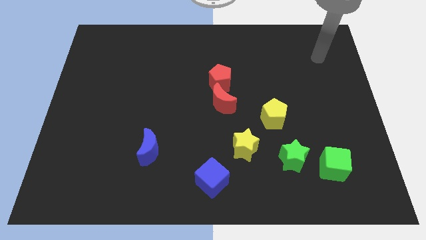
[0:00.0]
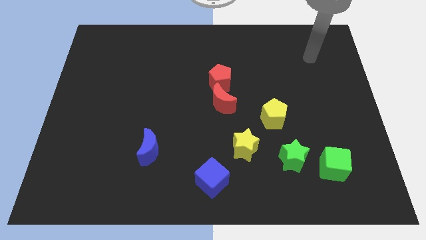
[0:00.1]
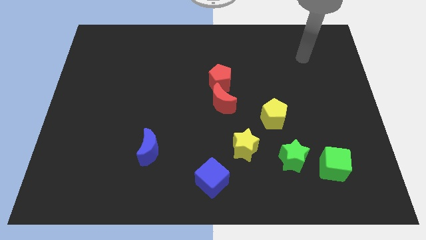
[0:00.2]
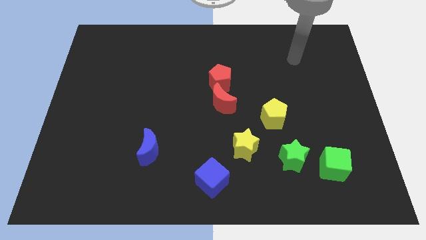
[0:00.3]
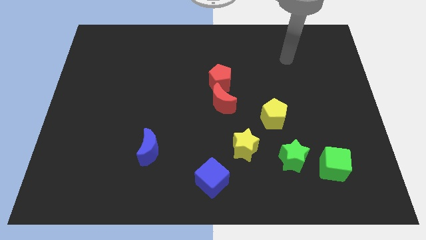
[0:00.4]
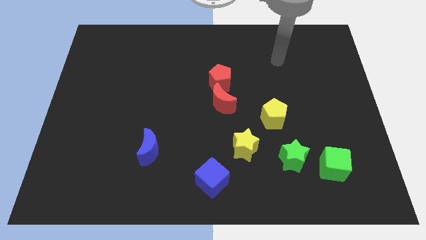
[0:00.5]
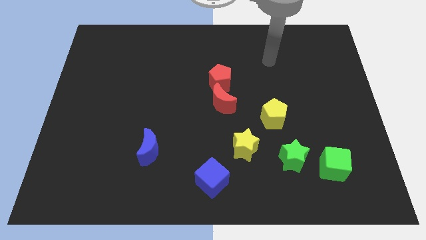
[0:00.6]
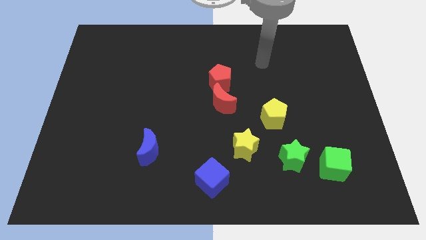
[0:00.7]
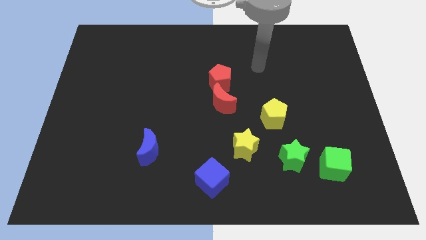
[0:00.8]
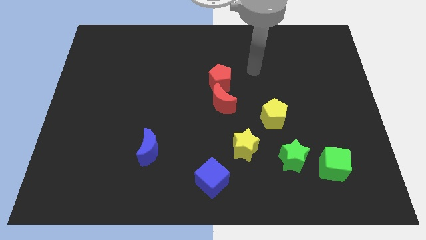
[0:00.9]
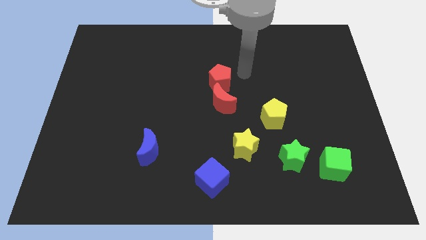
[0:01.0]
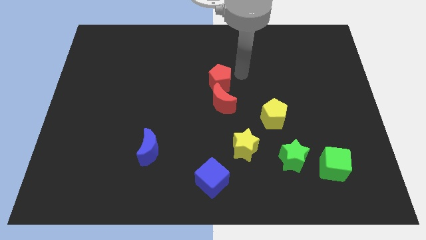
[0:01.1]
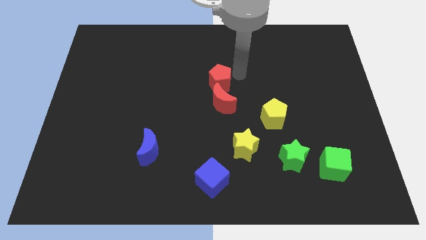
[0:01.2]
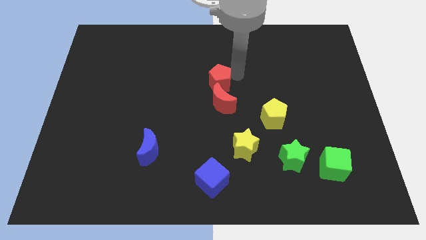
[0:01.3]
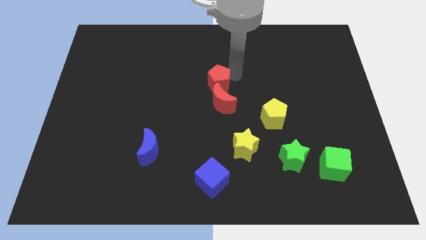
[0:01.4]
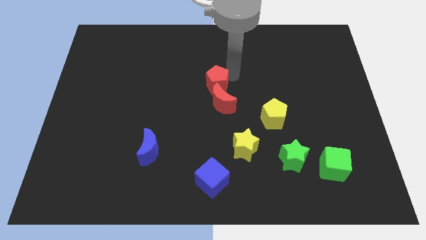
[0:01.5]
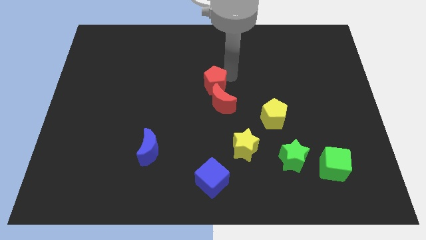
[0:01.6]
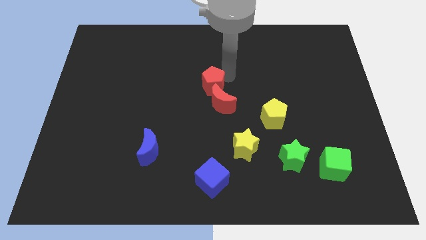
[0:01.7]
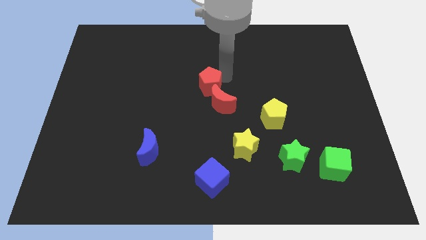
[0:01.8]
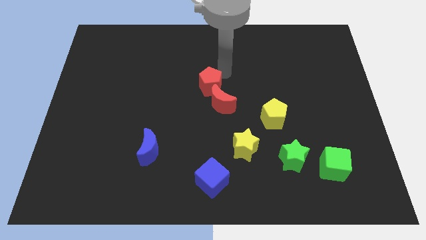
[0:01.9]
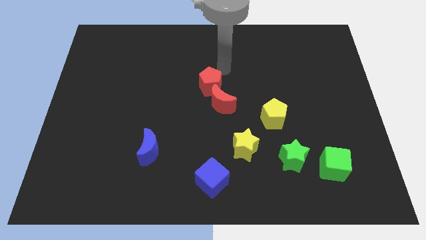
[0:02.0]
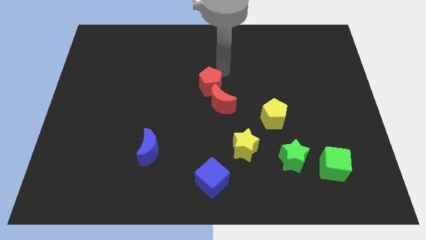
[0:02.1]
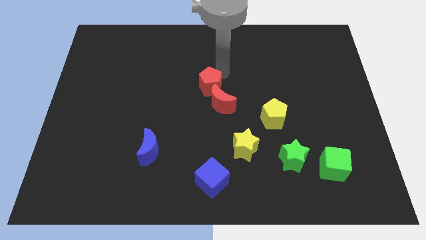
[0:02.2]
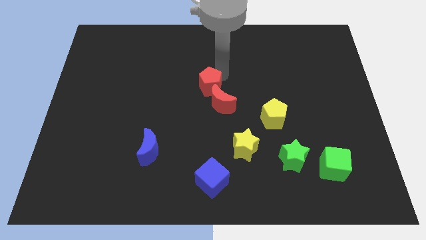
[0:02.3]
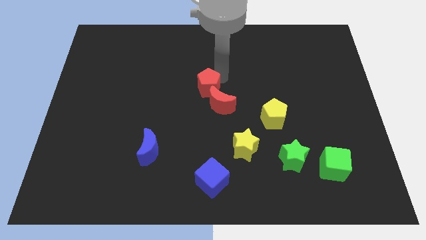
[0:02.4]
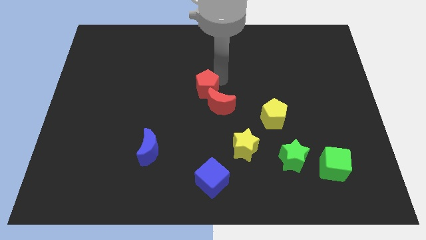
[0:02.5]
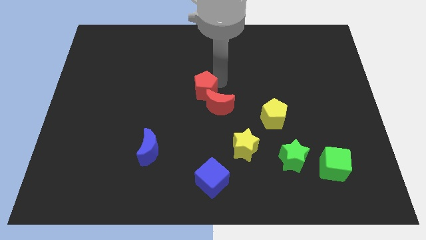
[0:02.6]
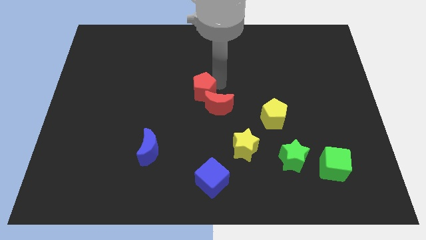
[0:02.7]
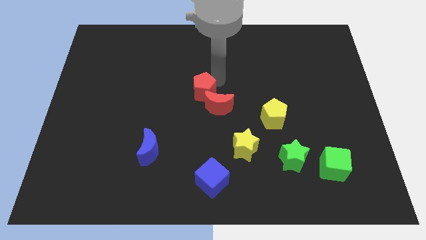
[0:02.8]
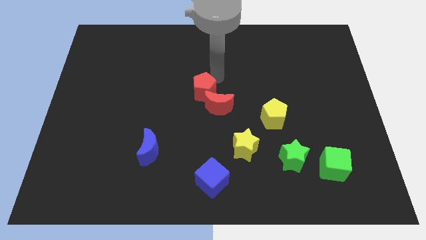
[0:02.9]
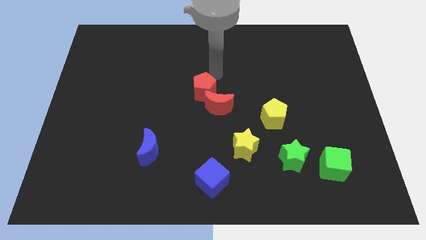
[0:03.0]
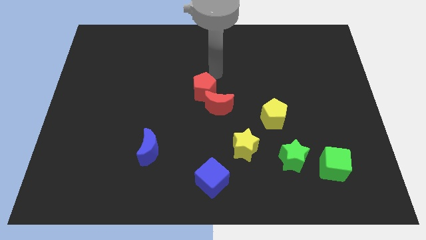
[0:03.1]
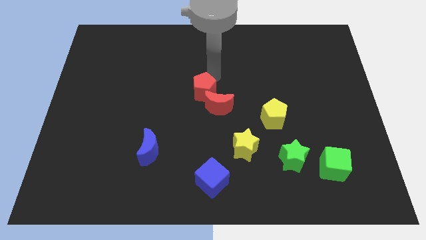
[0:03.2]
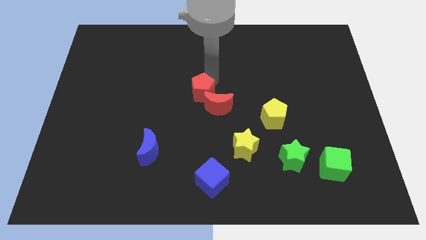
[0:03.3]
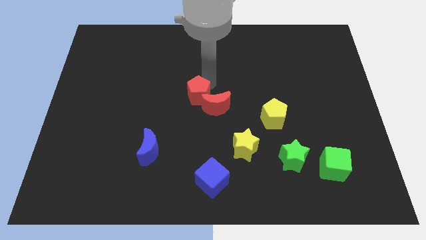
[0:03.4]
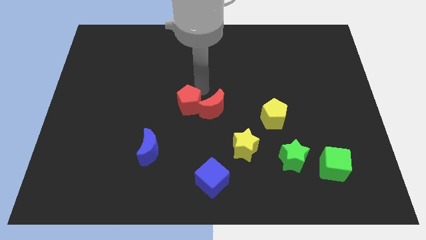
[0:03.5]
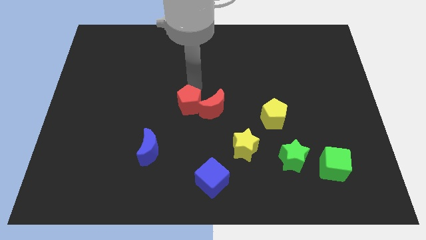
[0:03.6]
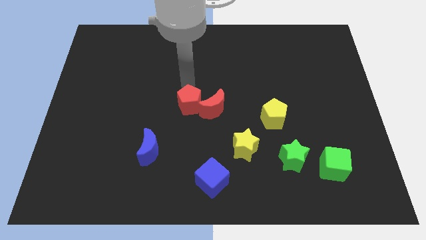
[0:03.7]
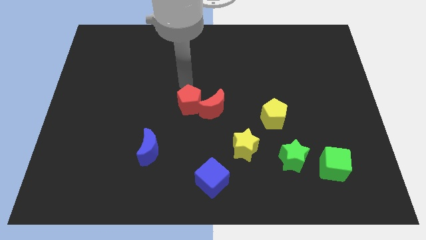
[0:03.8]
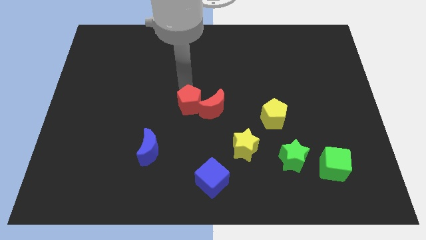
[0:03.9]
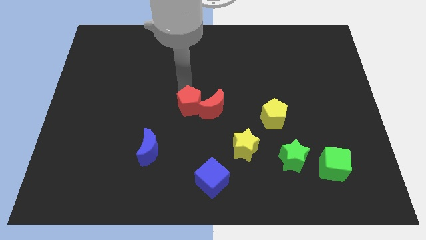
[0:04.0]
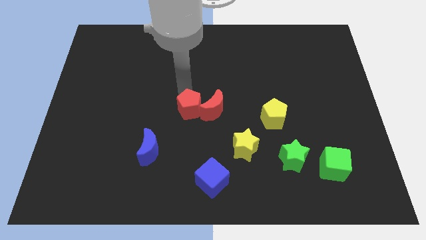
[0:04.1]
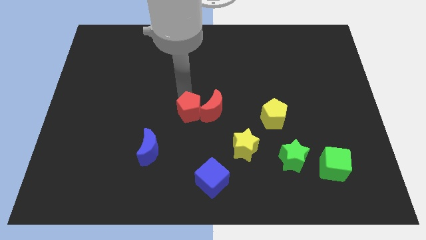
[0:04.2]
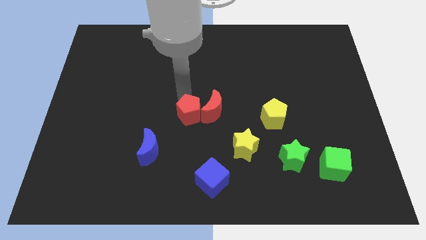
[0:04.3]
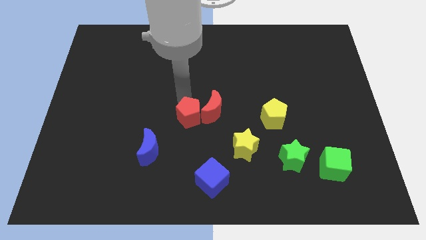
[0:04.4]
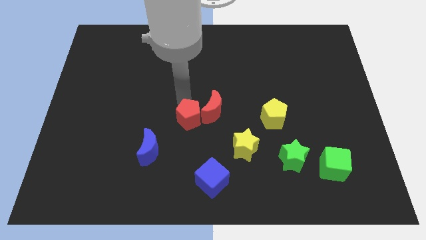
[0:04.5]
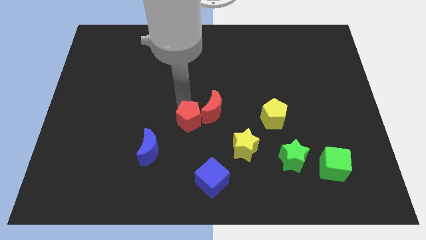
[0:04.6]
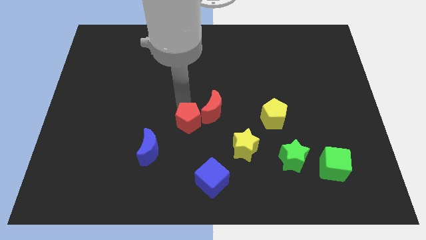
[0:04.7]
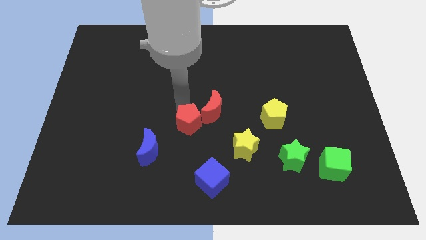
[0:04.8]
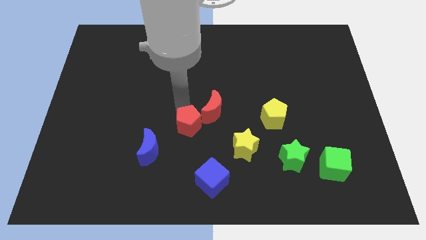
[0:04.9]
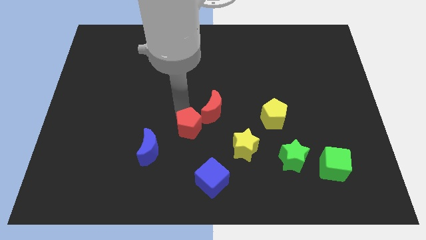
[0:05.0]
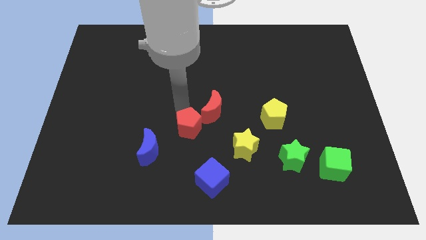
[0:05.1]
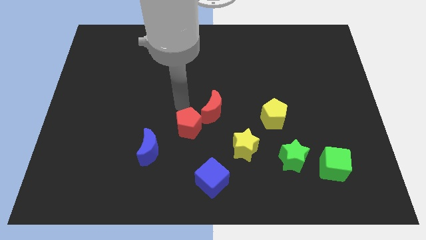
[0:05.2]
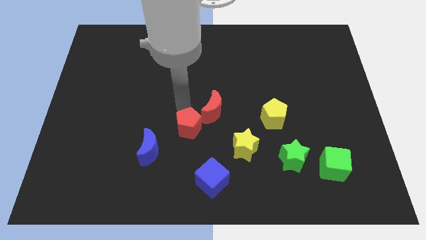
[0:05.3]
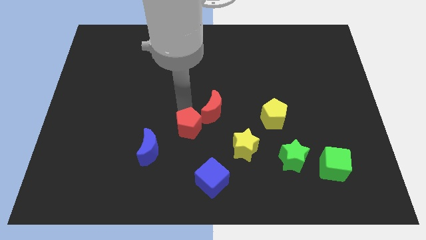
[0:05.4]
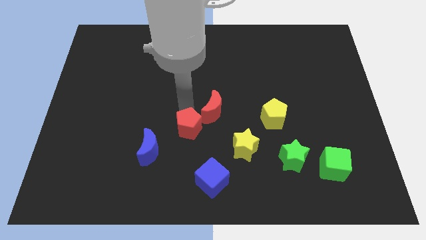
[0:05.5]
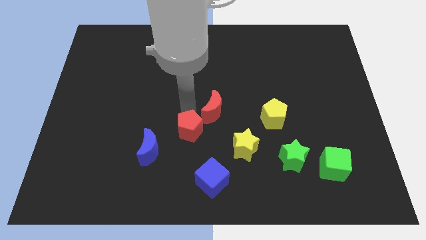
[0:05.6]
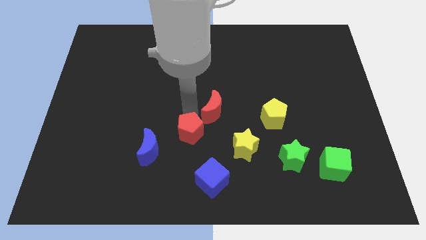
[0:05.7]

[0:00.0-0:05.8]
put the red pentagon to the right side of the blue moon
